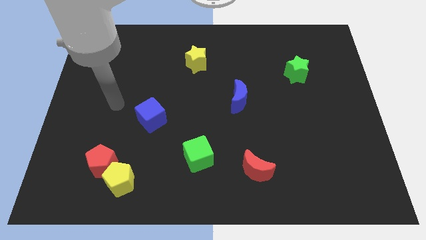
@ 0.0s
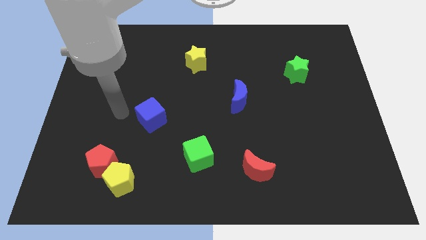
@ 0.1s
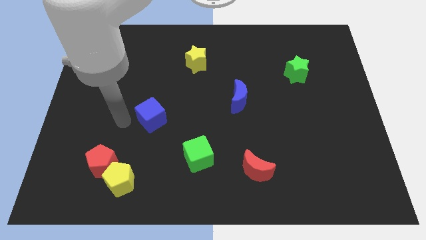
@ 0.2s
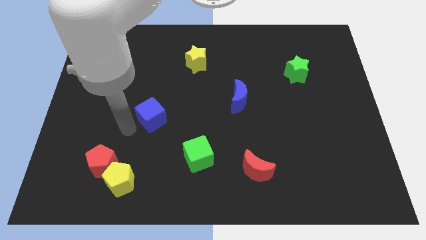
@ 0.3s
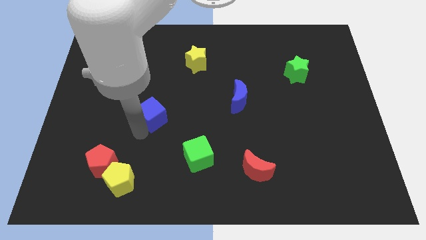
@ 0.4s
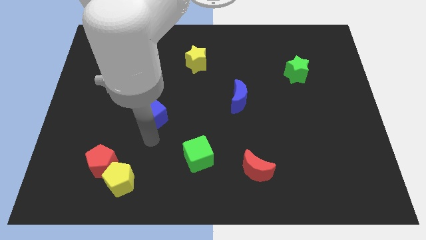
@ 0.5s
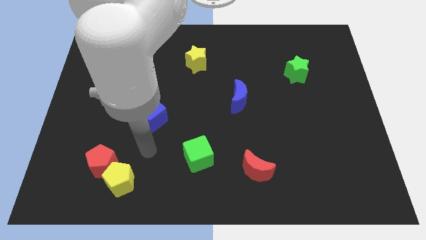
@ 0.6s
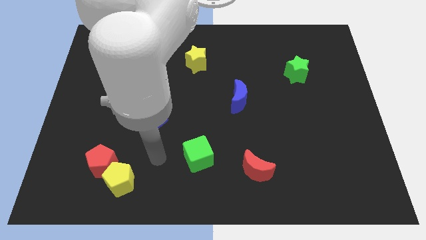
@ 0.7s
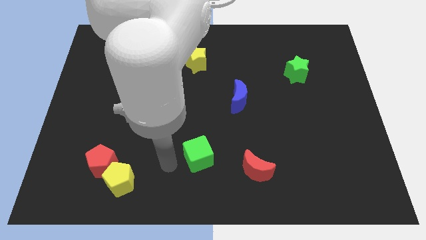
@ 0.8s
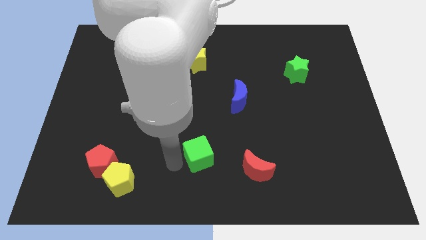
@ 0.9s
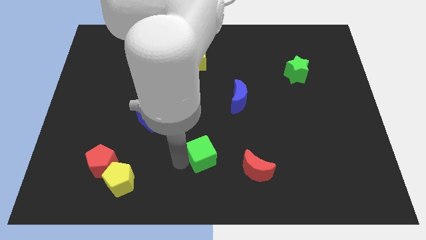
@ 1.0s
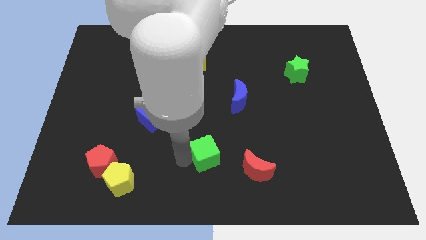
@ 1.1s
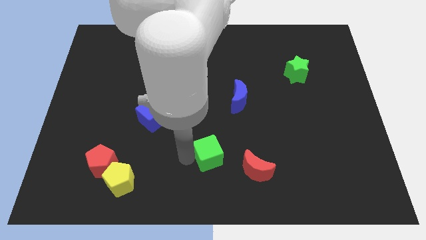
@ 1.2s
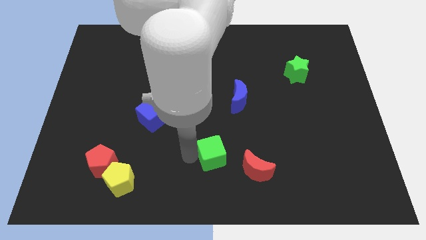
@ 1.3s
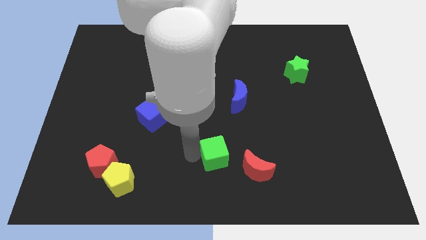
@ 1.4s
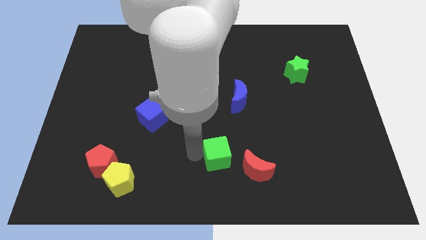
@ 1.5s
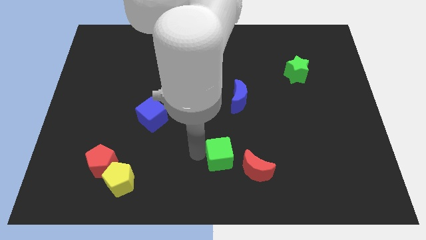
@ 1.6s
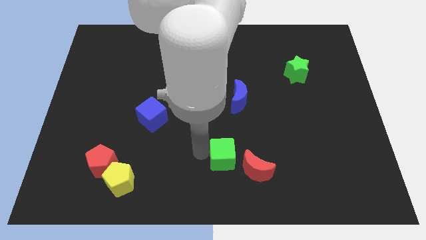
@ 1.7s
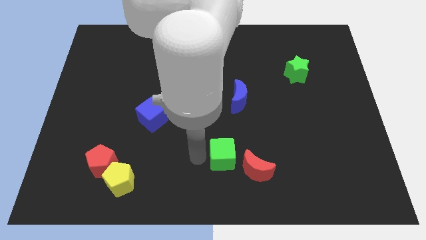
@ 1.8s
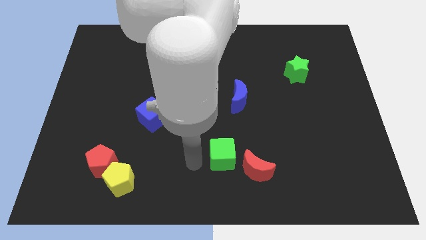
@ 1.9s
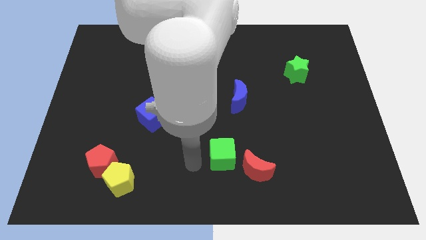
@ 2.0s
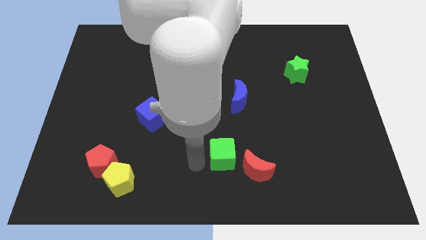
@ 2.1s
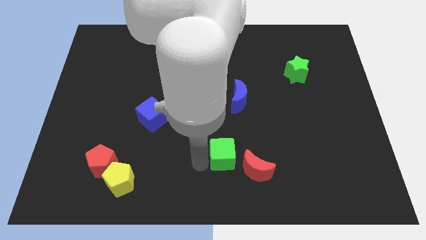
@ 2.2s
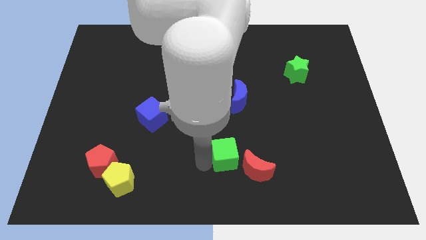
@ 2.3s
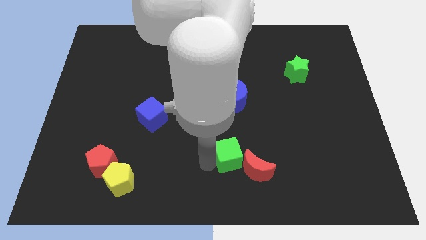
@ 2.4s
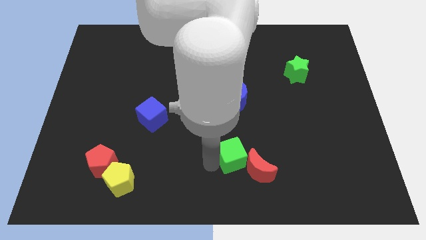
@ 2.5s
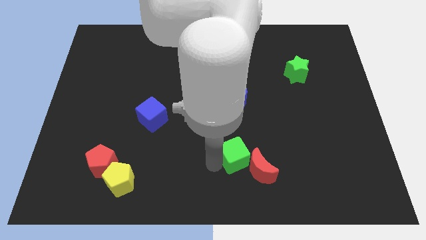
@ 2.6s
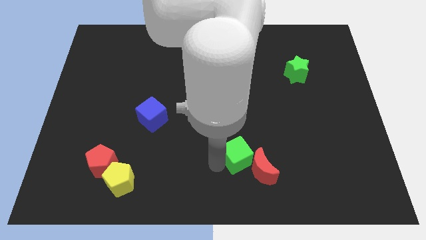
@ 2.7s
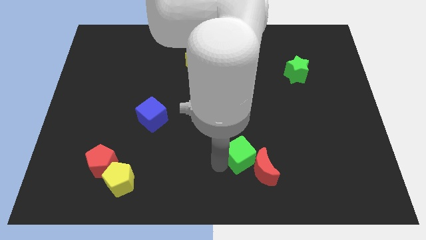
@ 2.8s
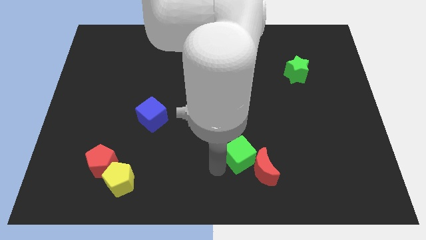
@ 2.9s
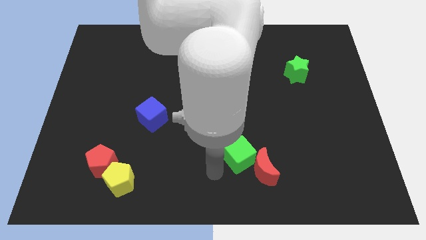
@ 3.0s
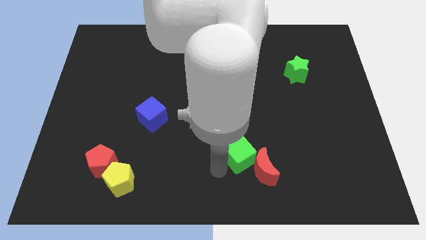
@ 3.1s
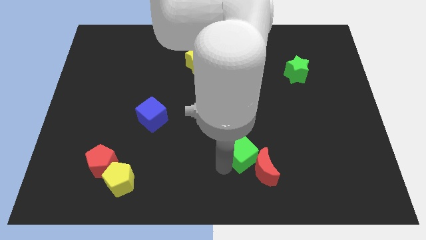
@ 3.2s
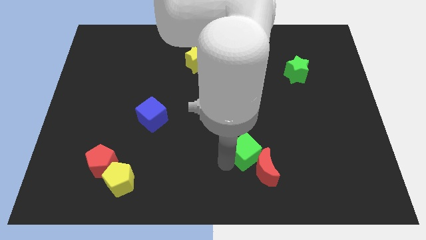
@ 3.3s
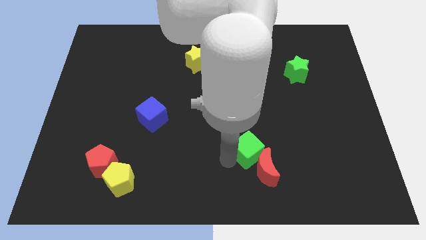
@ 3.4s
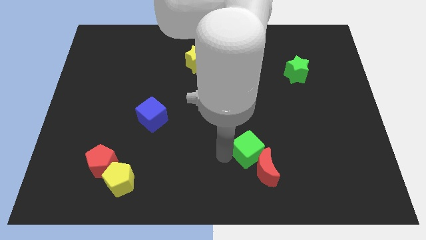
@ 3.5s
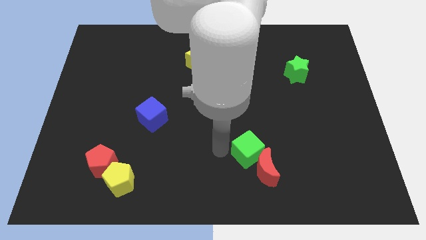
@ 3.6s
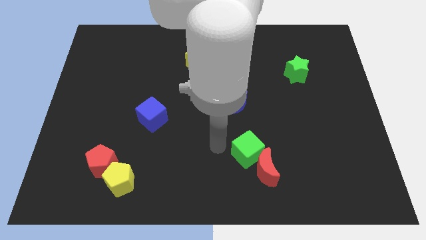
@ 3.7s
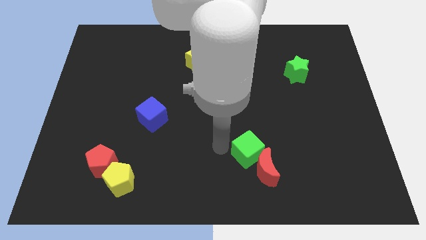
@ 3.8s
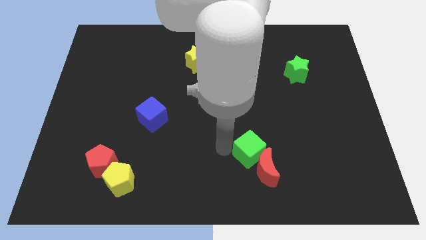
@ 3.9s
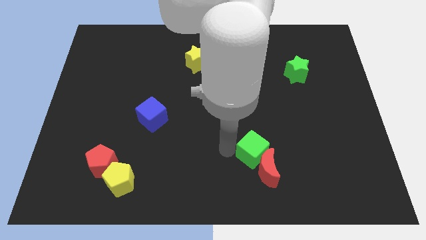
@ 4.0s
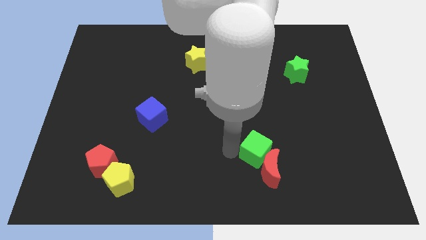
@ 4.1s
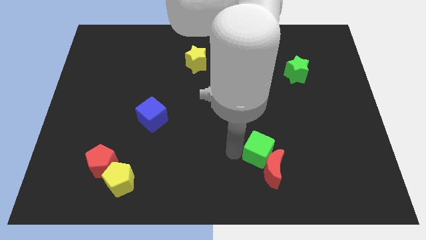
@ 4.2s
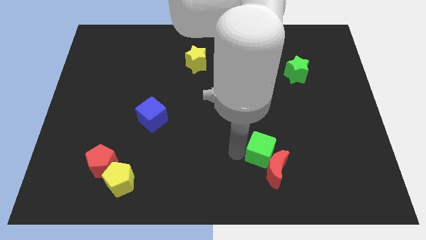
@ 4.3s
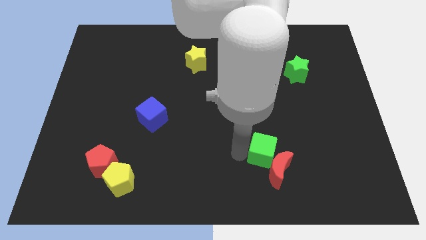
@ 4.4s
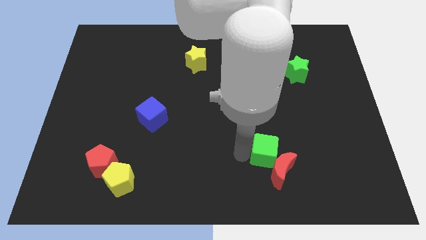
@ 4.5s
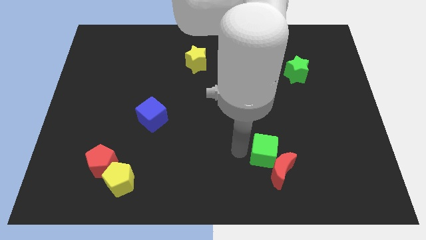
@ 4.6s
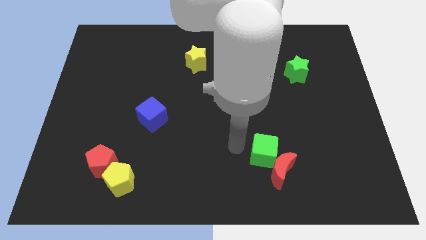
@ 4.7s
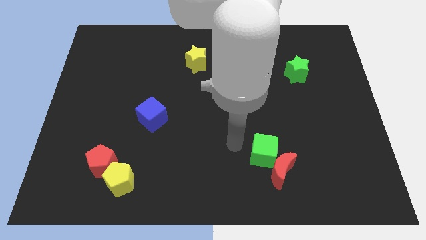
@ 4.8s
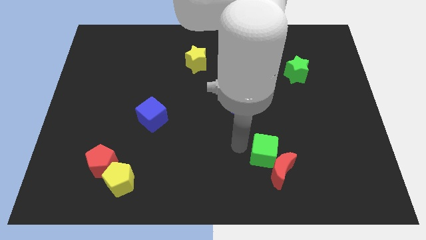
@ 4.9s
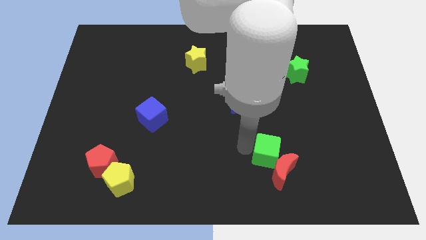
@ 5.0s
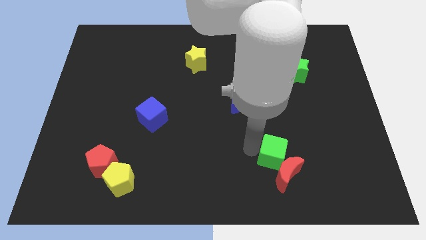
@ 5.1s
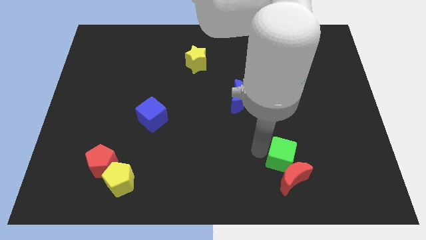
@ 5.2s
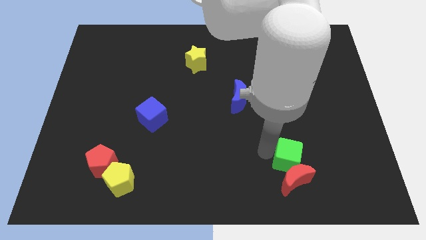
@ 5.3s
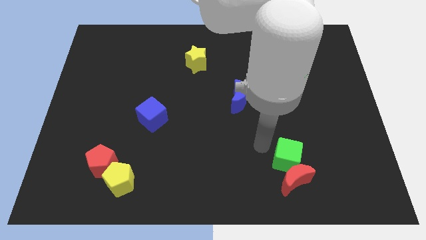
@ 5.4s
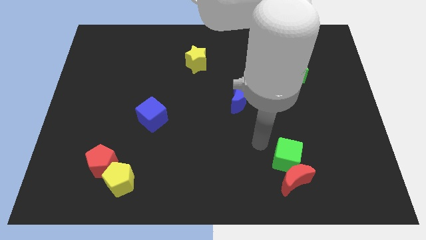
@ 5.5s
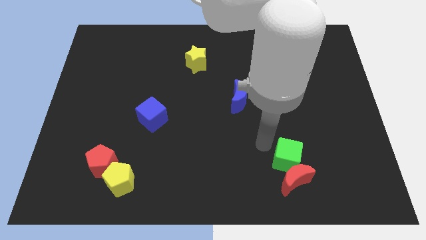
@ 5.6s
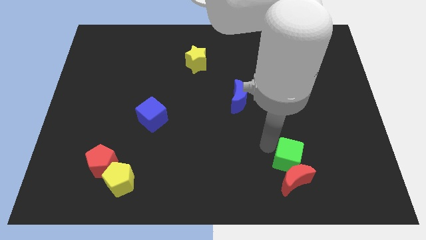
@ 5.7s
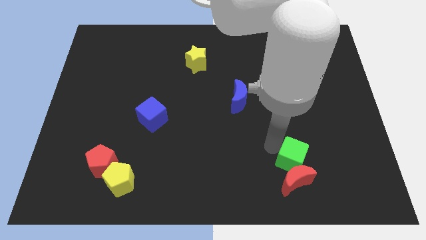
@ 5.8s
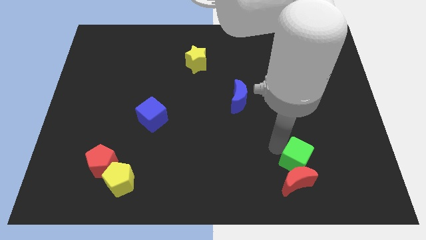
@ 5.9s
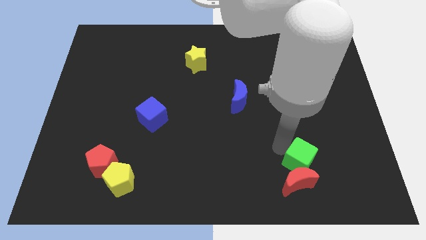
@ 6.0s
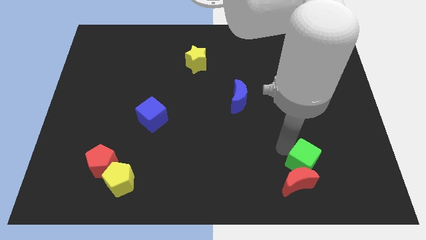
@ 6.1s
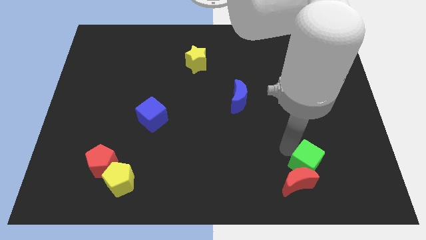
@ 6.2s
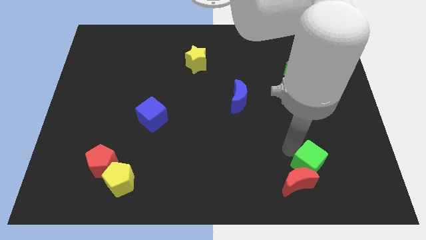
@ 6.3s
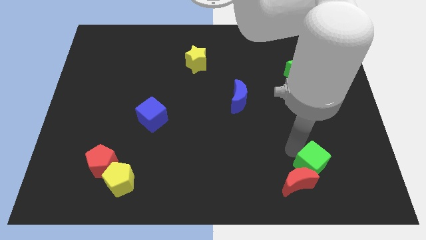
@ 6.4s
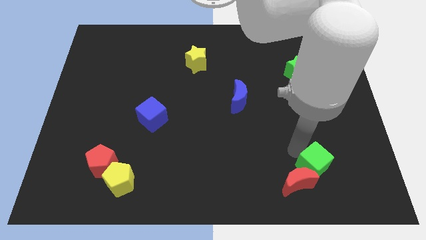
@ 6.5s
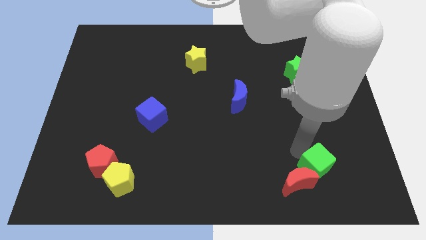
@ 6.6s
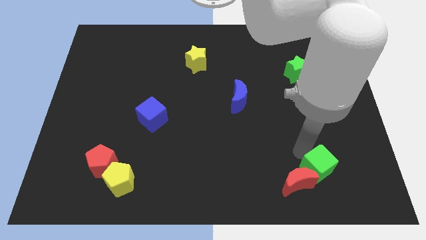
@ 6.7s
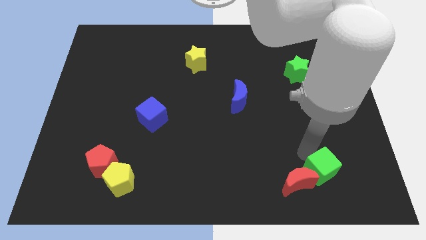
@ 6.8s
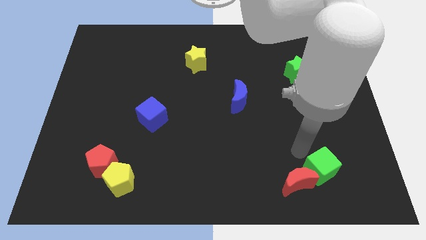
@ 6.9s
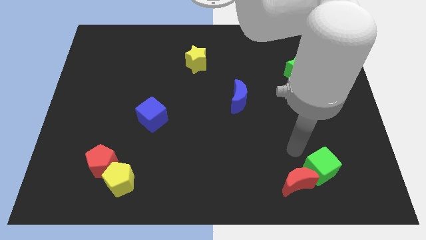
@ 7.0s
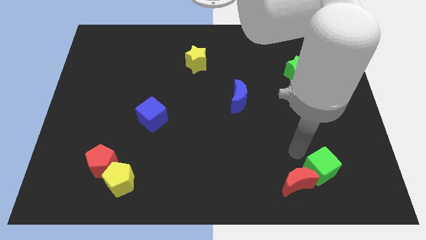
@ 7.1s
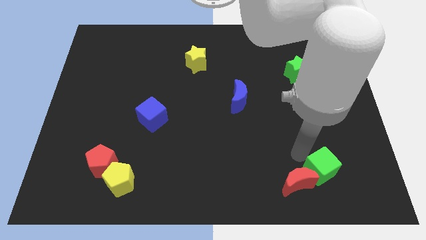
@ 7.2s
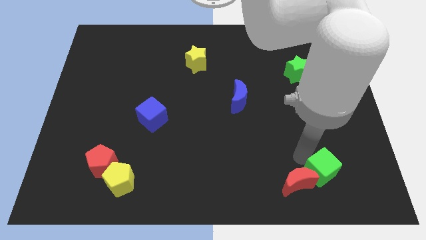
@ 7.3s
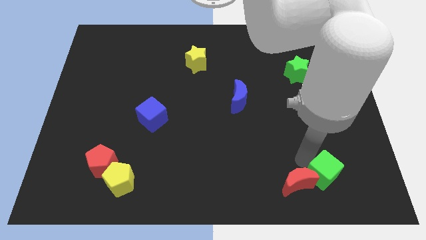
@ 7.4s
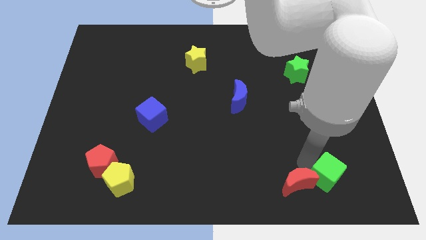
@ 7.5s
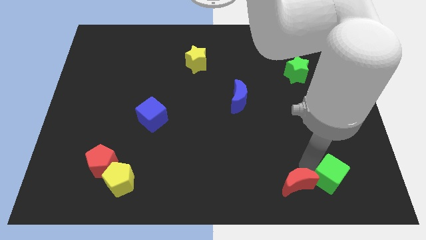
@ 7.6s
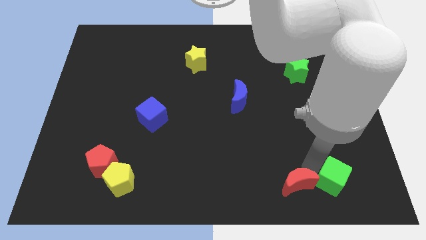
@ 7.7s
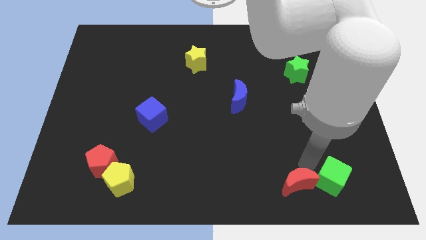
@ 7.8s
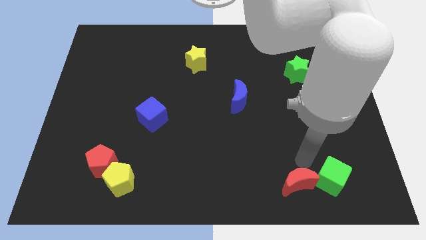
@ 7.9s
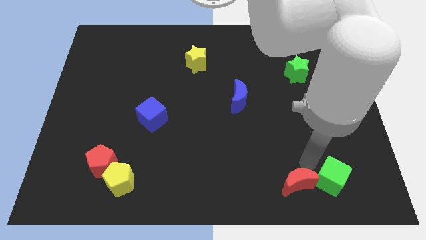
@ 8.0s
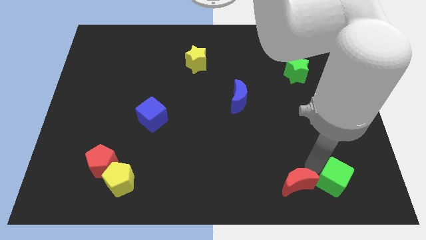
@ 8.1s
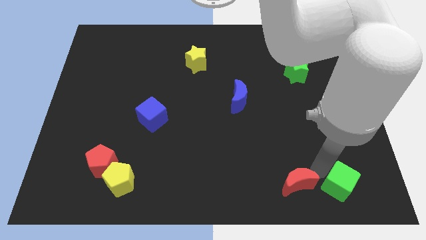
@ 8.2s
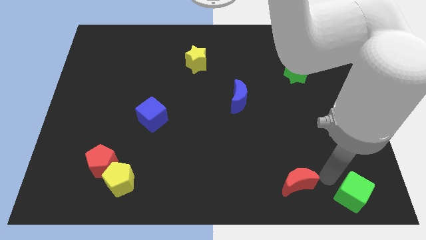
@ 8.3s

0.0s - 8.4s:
push the green cube to the bottom right corner
